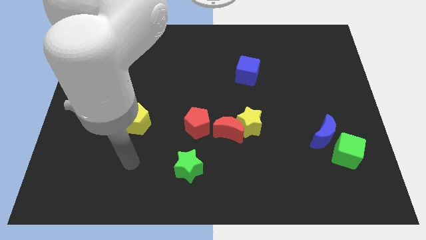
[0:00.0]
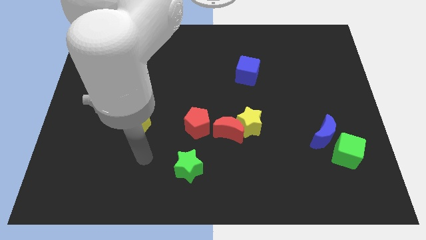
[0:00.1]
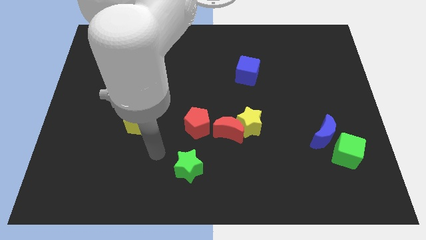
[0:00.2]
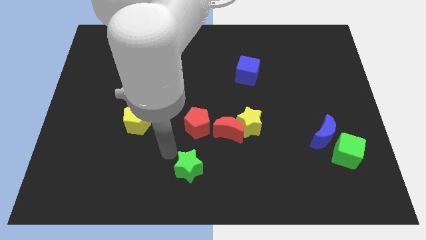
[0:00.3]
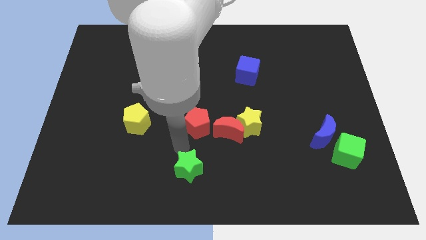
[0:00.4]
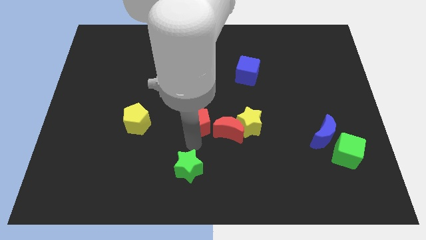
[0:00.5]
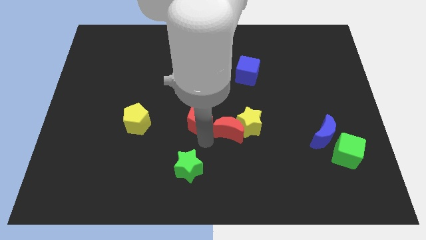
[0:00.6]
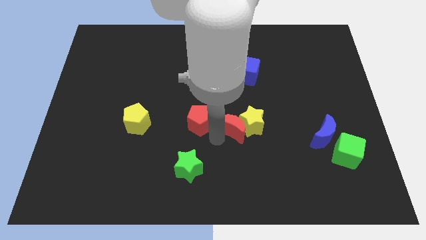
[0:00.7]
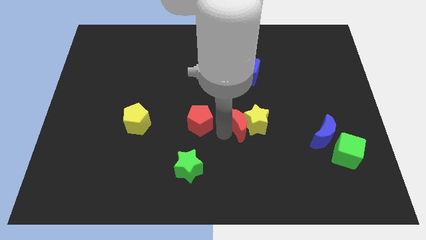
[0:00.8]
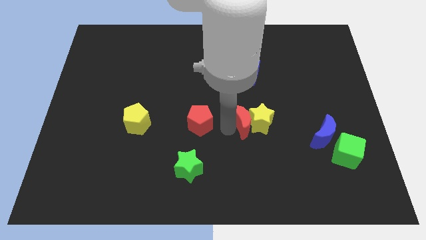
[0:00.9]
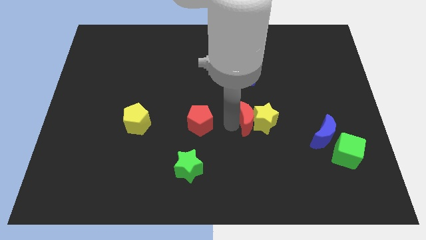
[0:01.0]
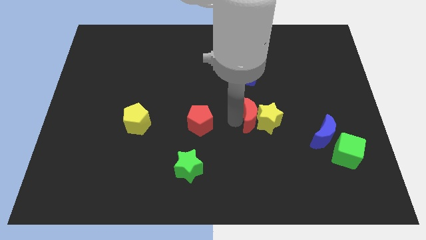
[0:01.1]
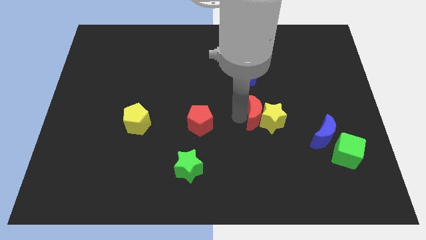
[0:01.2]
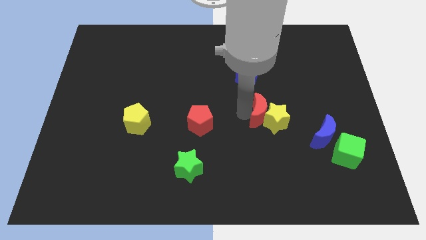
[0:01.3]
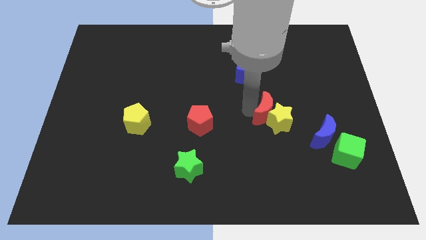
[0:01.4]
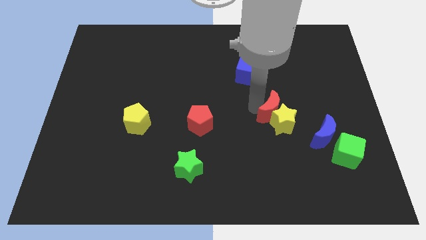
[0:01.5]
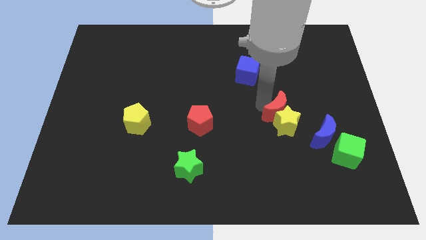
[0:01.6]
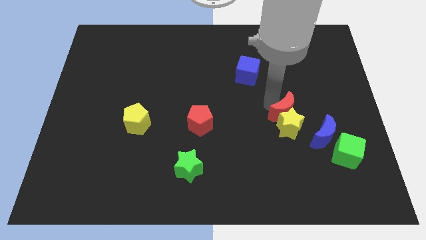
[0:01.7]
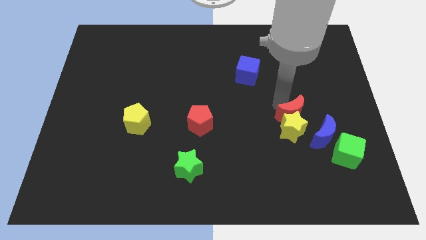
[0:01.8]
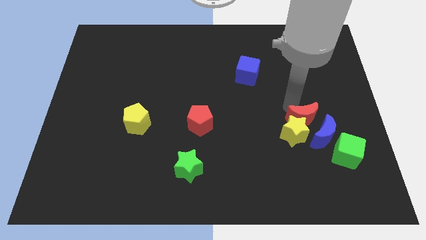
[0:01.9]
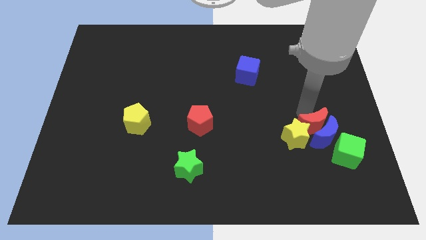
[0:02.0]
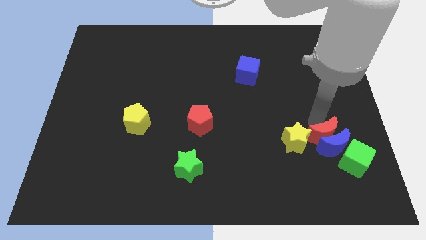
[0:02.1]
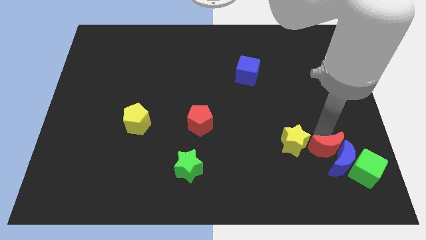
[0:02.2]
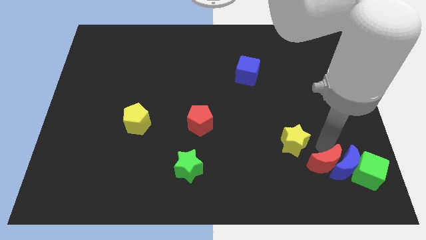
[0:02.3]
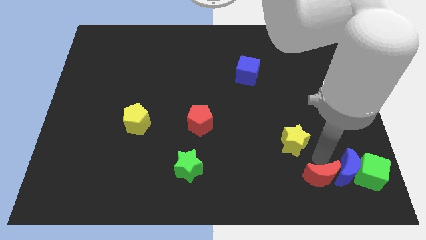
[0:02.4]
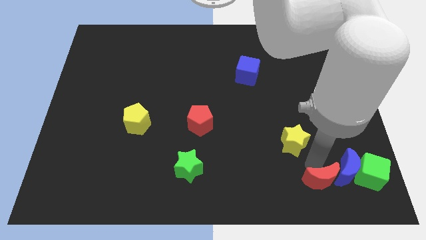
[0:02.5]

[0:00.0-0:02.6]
move the yellow star away from the red moon

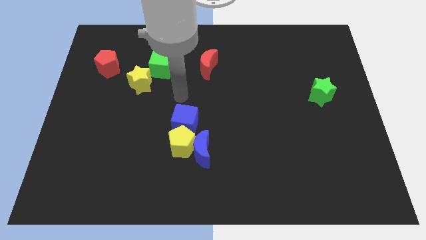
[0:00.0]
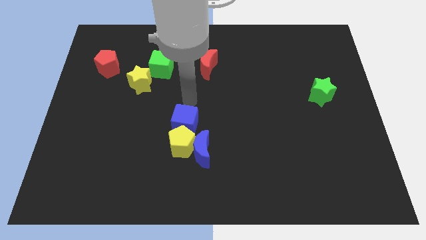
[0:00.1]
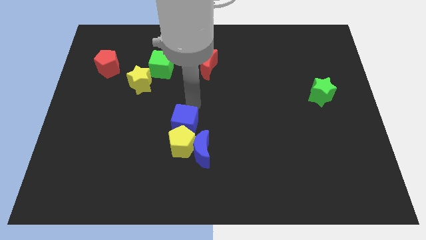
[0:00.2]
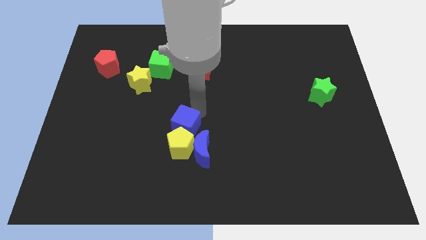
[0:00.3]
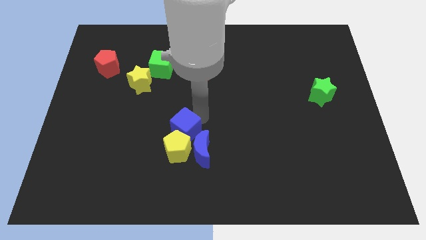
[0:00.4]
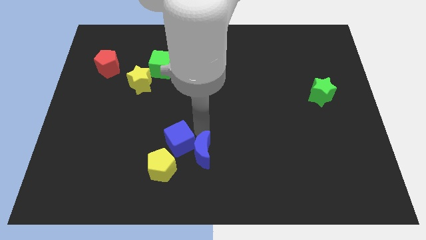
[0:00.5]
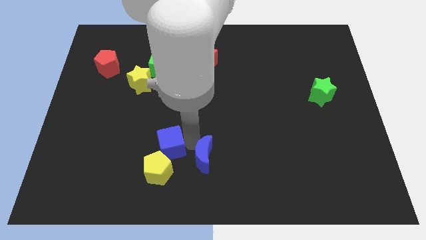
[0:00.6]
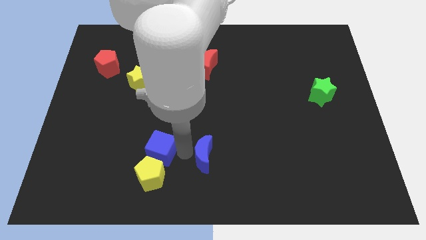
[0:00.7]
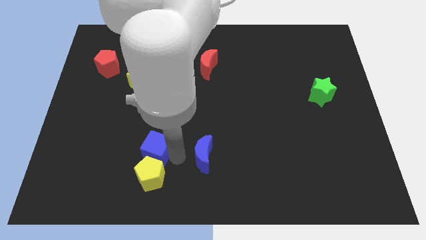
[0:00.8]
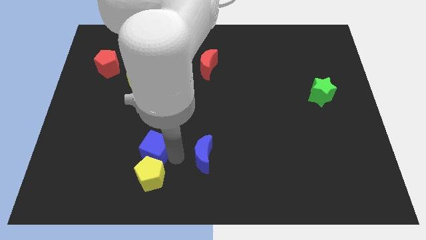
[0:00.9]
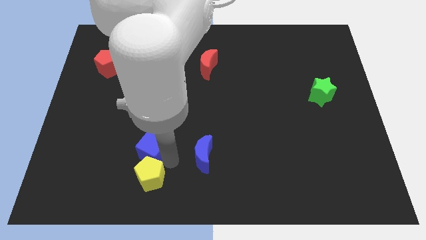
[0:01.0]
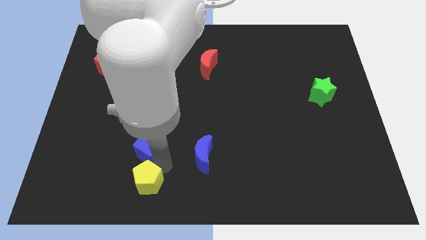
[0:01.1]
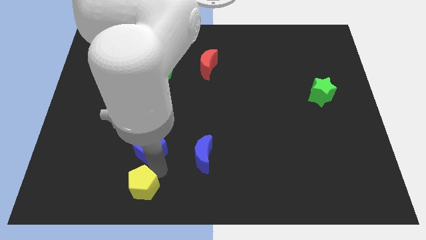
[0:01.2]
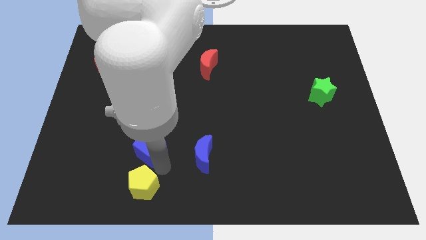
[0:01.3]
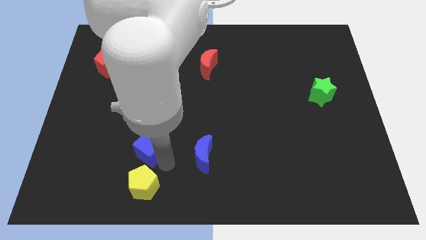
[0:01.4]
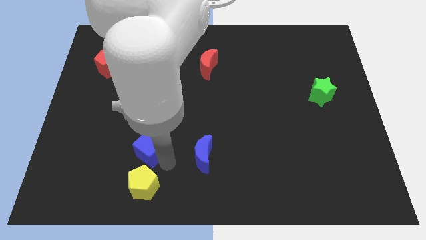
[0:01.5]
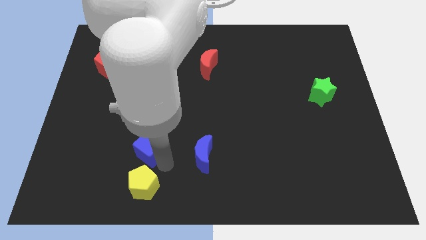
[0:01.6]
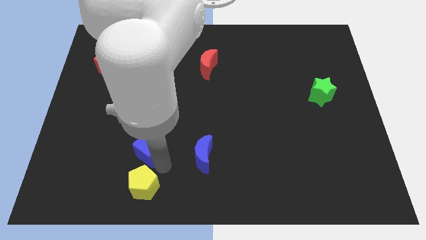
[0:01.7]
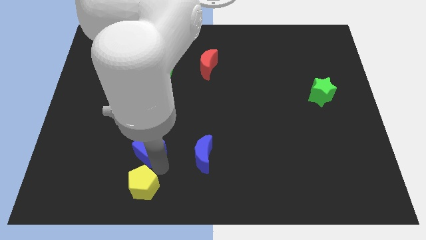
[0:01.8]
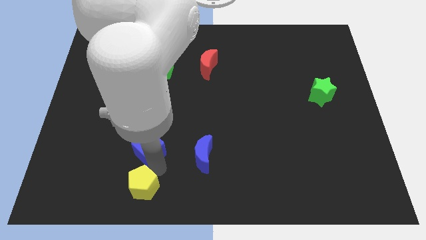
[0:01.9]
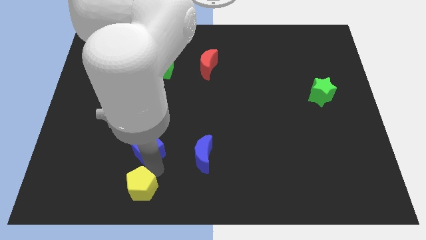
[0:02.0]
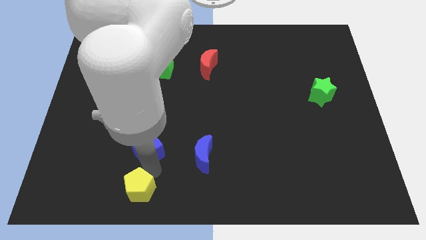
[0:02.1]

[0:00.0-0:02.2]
move the yellow pentagon away from the blue moon and blue cube

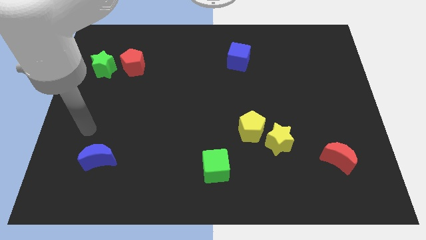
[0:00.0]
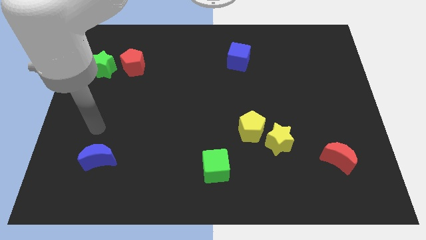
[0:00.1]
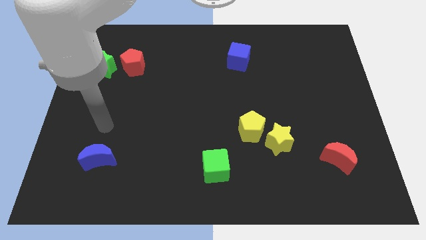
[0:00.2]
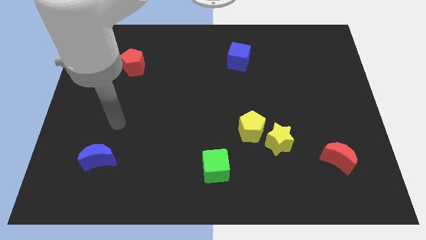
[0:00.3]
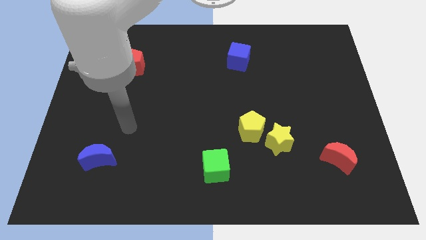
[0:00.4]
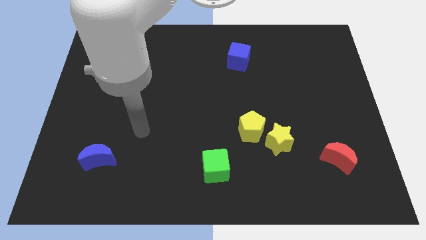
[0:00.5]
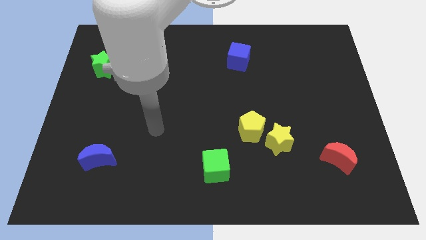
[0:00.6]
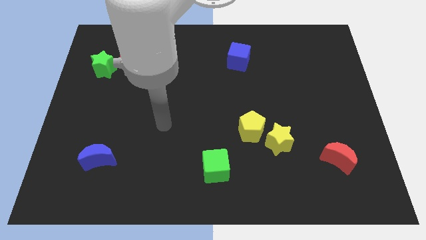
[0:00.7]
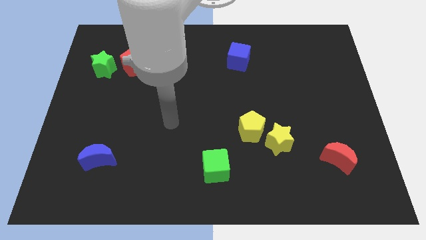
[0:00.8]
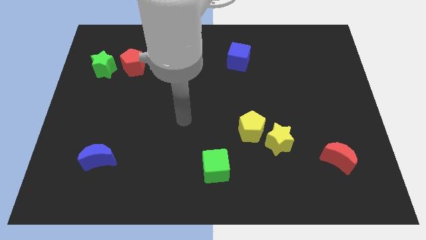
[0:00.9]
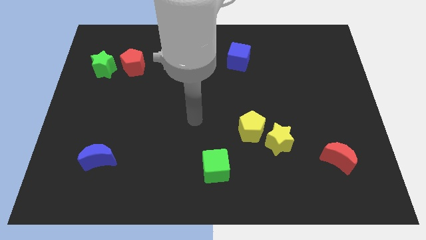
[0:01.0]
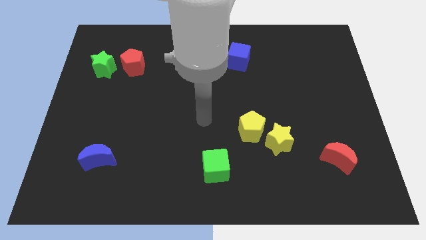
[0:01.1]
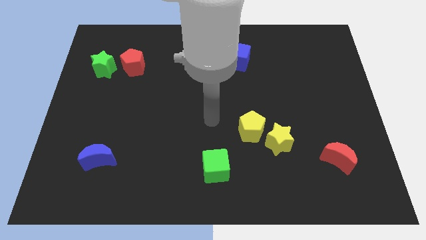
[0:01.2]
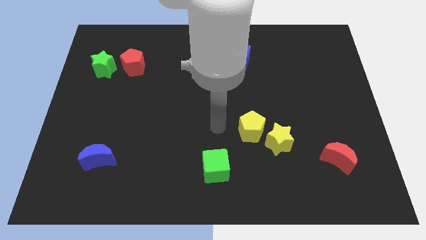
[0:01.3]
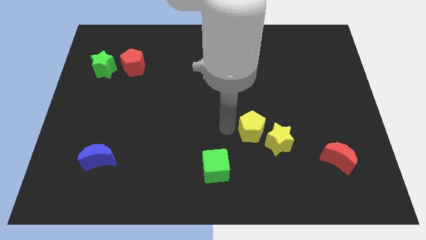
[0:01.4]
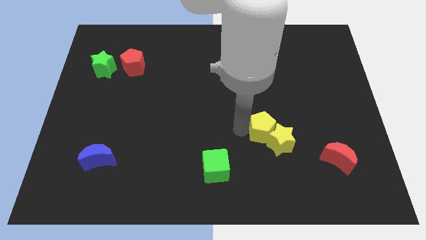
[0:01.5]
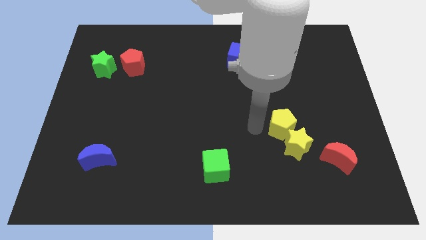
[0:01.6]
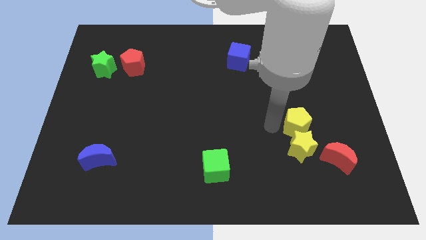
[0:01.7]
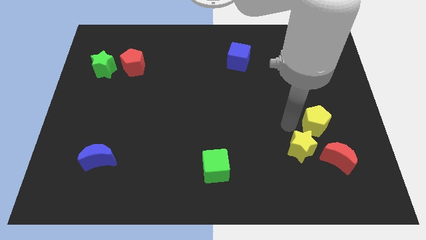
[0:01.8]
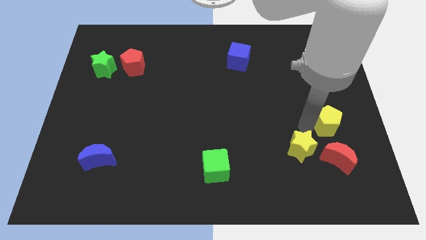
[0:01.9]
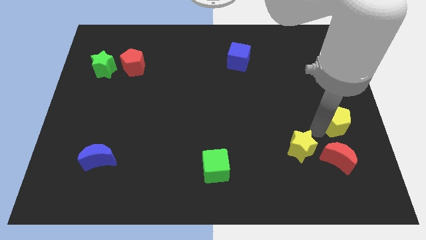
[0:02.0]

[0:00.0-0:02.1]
pull the yellow star apart from the yellow pentagon

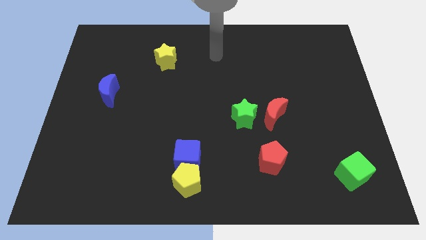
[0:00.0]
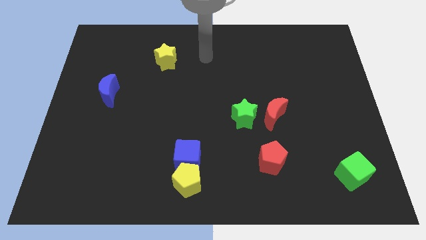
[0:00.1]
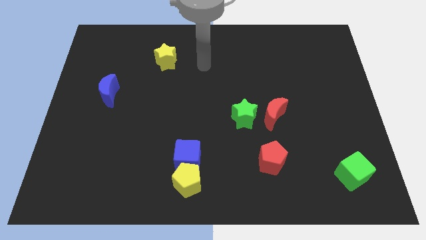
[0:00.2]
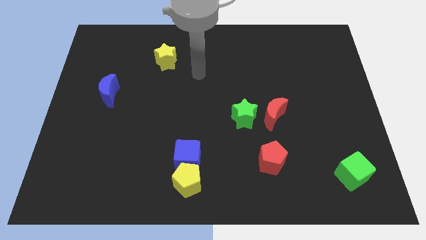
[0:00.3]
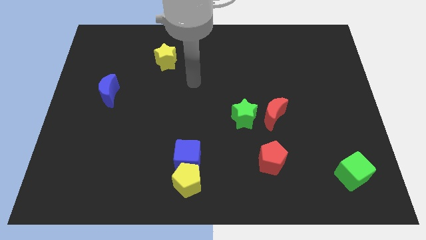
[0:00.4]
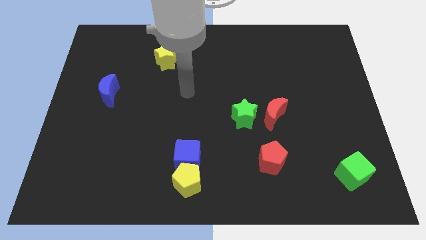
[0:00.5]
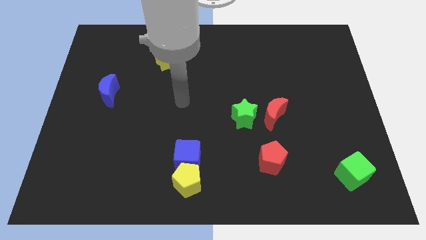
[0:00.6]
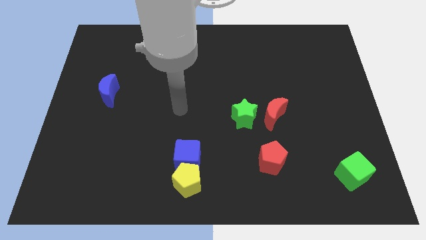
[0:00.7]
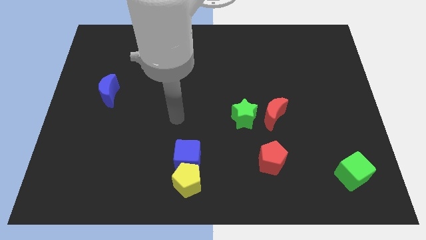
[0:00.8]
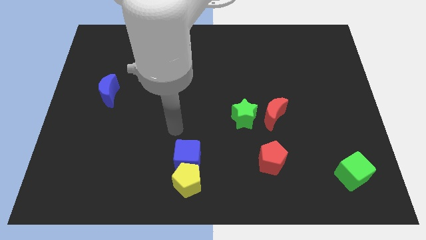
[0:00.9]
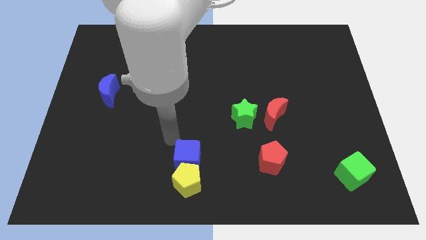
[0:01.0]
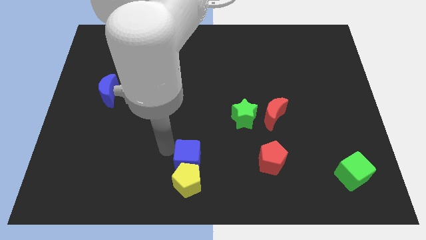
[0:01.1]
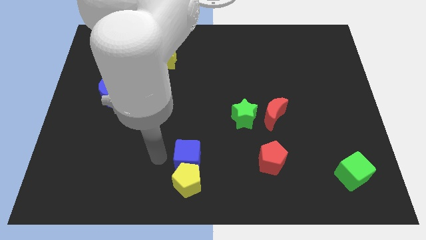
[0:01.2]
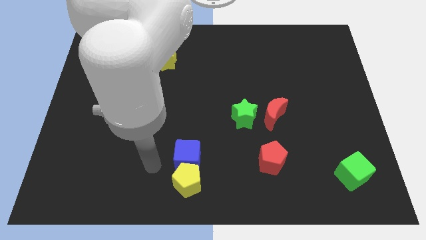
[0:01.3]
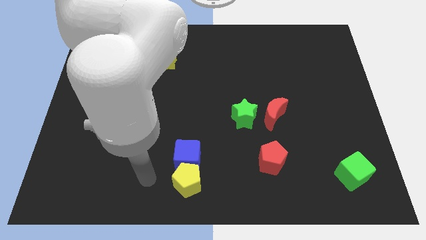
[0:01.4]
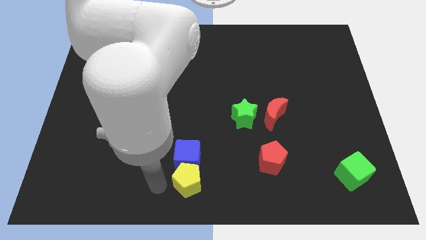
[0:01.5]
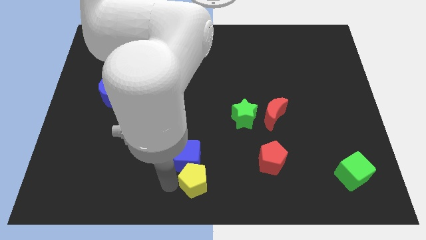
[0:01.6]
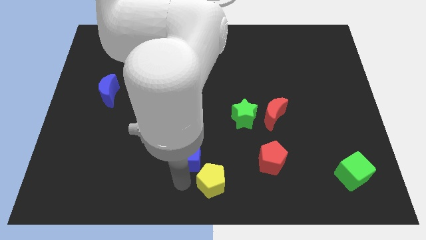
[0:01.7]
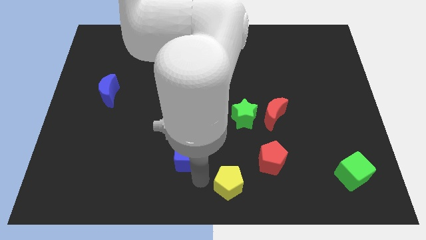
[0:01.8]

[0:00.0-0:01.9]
separate the blue cube from the yellow pentagon

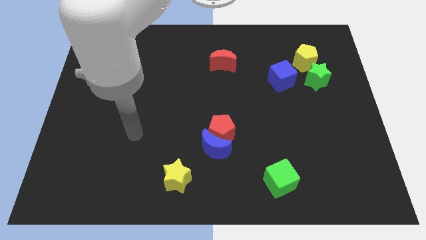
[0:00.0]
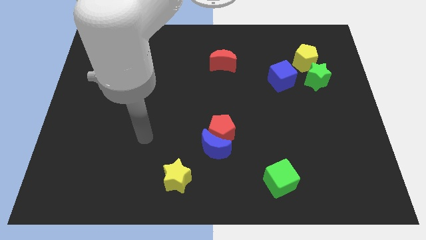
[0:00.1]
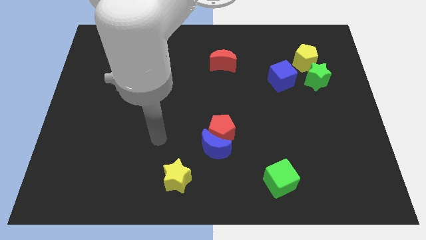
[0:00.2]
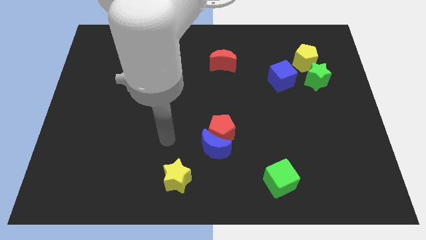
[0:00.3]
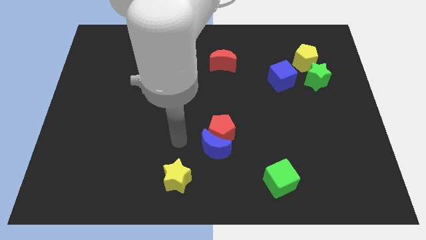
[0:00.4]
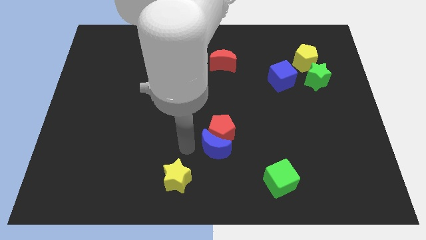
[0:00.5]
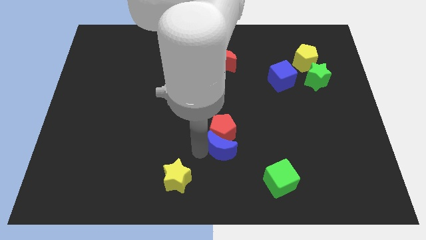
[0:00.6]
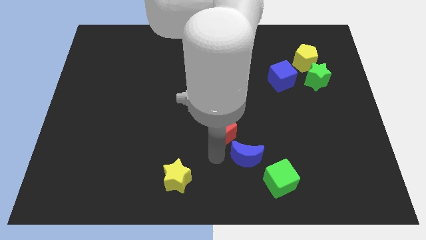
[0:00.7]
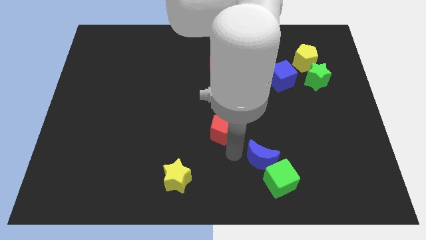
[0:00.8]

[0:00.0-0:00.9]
separate the red pentagon from the blue moon
